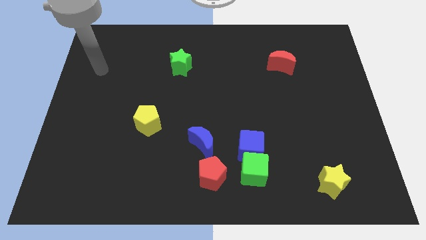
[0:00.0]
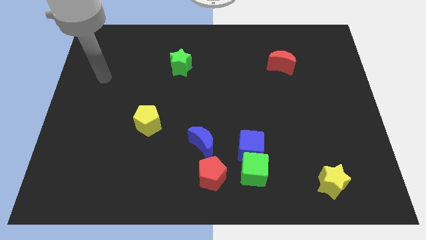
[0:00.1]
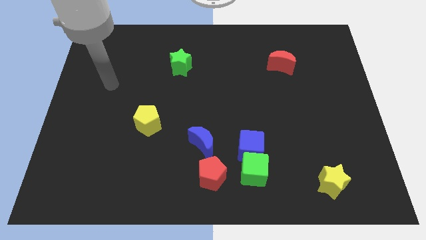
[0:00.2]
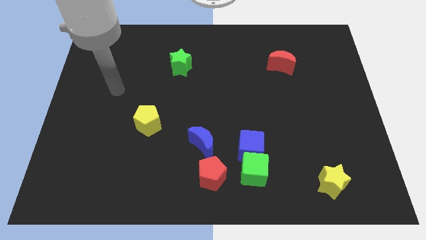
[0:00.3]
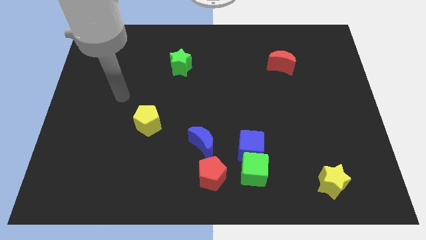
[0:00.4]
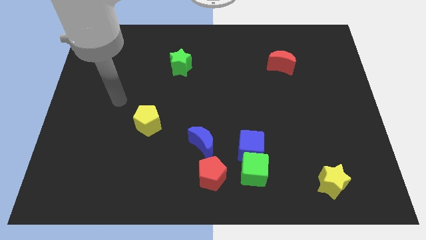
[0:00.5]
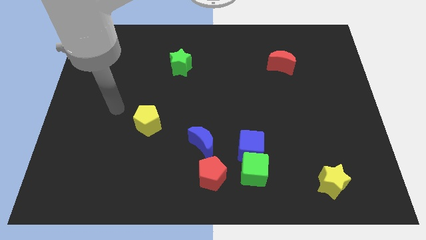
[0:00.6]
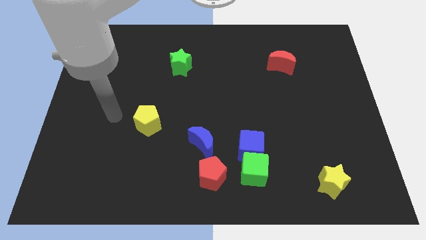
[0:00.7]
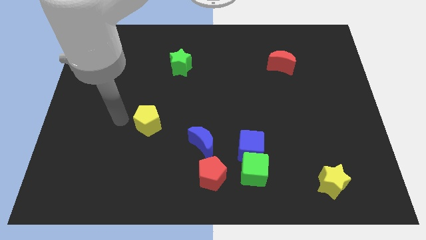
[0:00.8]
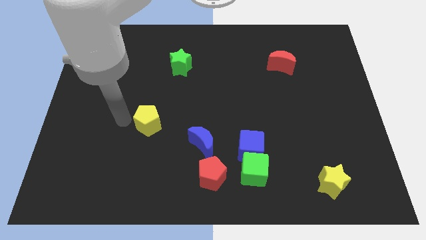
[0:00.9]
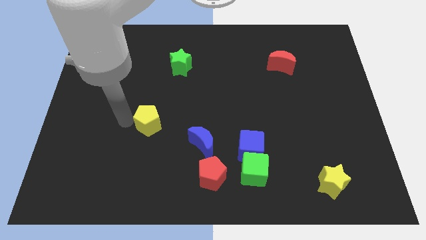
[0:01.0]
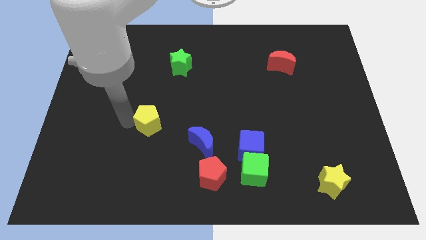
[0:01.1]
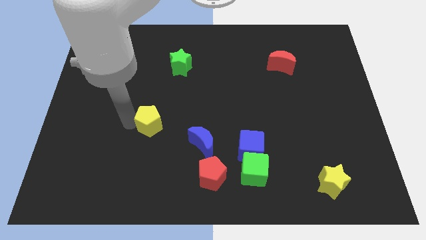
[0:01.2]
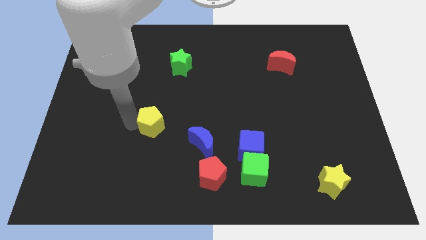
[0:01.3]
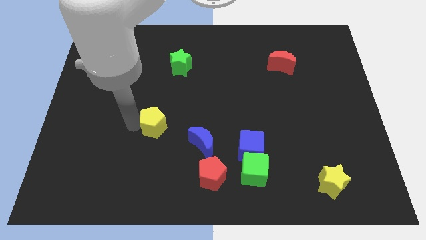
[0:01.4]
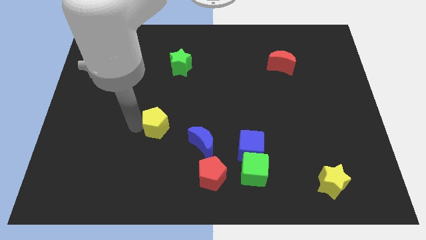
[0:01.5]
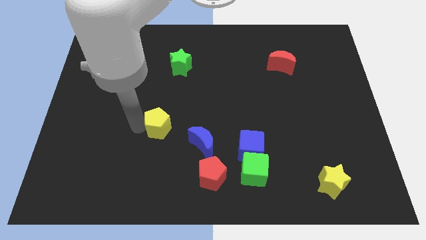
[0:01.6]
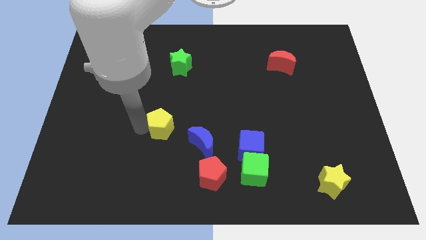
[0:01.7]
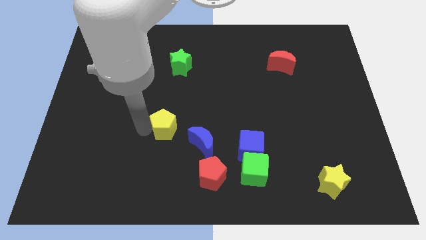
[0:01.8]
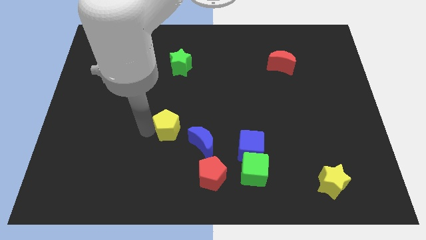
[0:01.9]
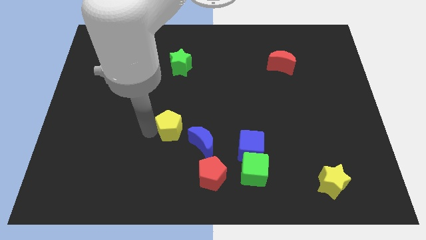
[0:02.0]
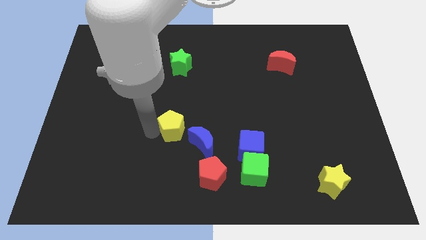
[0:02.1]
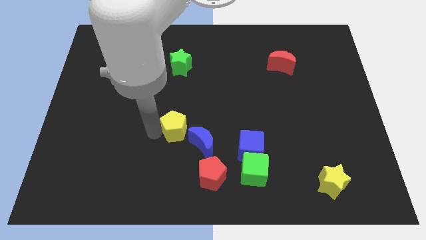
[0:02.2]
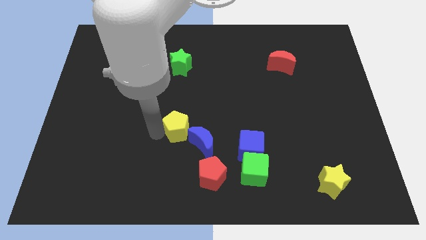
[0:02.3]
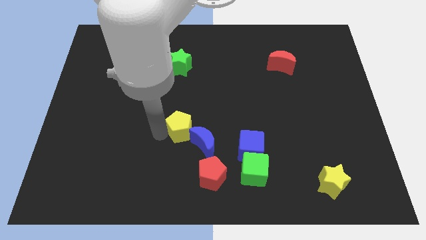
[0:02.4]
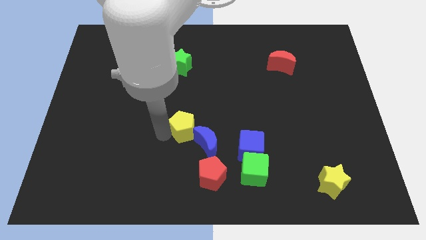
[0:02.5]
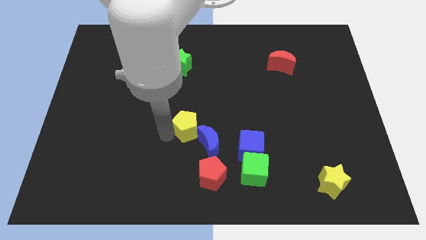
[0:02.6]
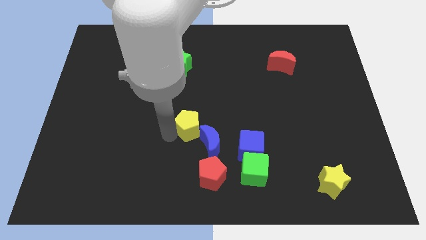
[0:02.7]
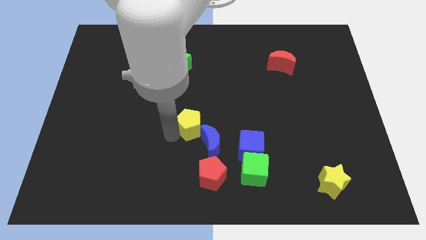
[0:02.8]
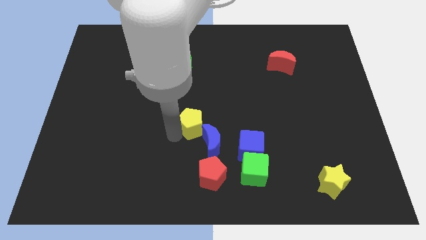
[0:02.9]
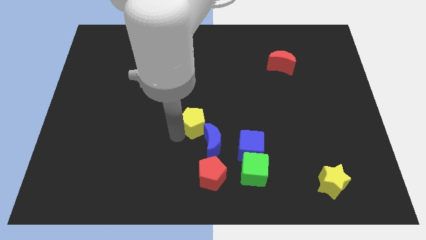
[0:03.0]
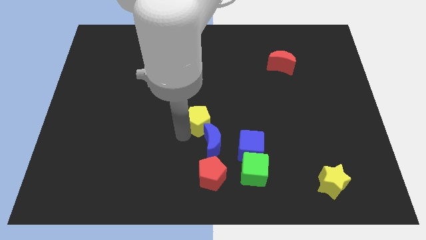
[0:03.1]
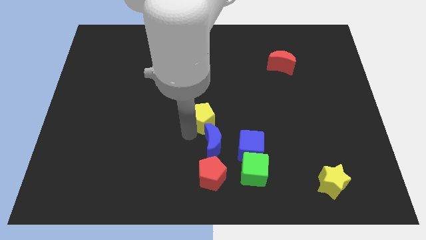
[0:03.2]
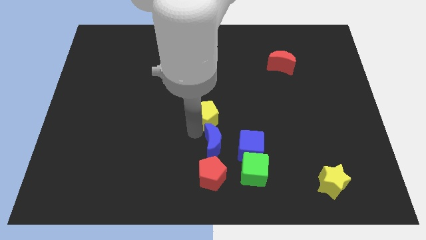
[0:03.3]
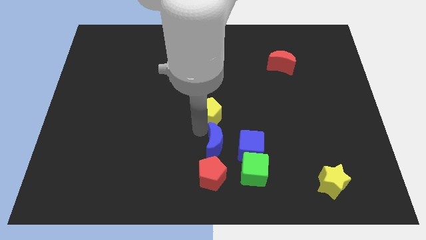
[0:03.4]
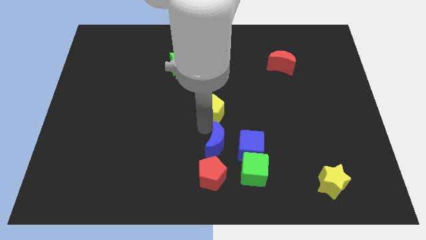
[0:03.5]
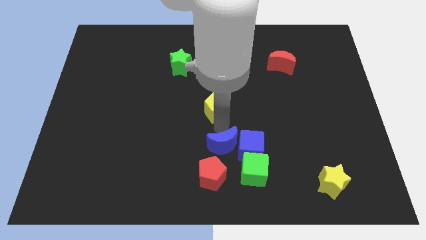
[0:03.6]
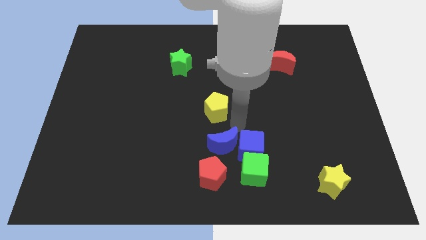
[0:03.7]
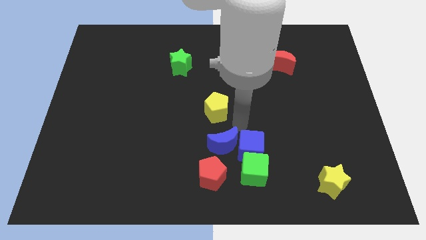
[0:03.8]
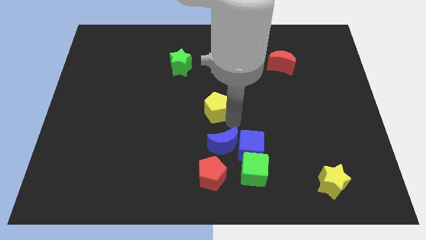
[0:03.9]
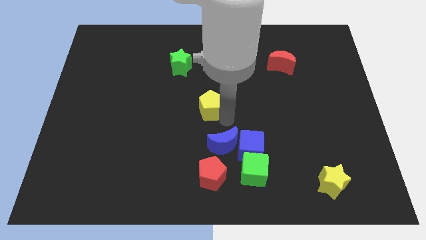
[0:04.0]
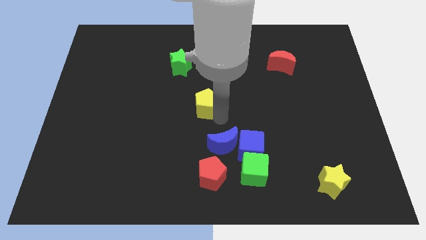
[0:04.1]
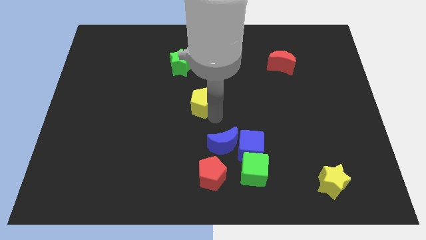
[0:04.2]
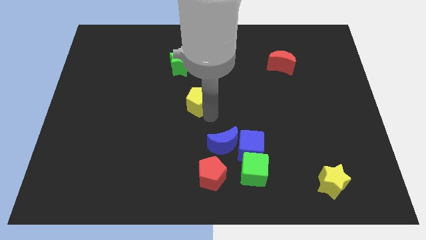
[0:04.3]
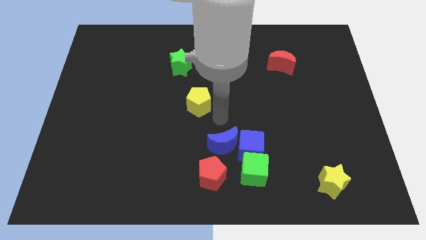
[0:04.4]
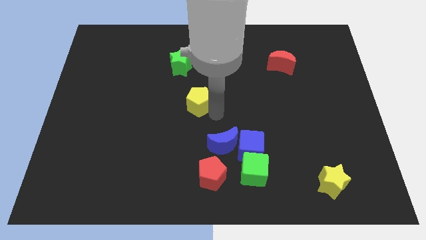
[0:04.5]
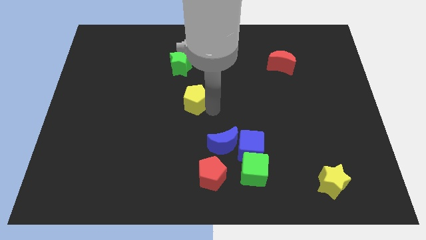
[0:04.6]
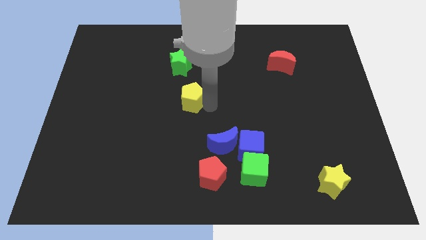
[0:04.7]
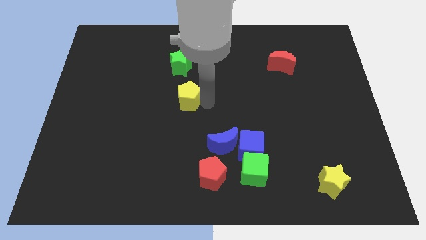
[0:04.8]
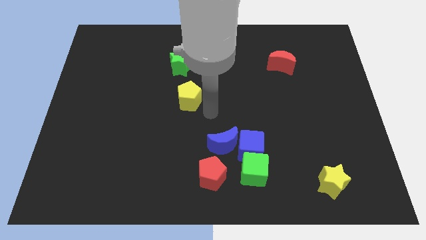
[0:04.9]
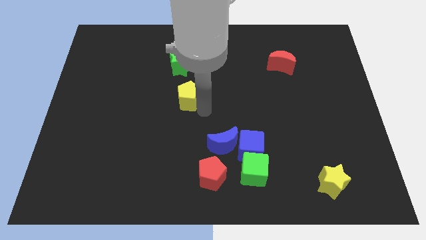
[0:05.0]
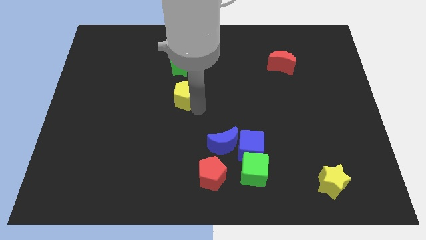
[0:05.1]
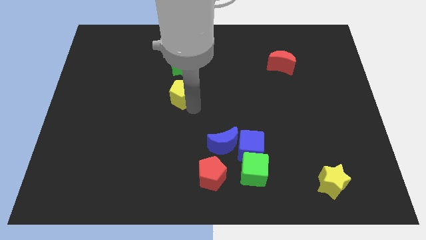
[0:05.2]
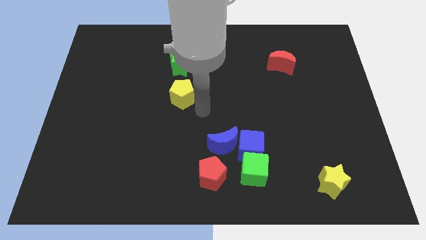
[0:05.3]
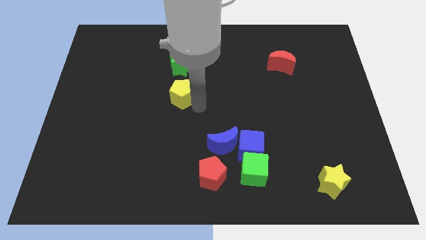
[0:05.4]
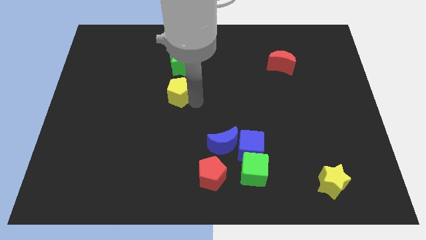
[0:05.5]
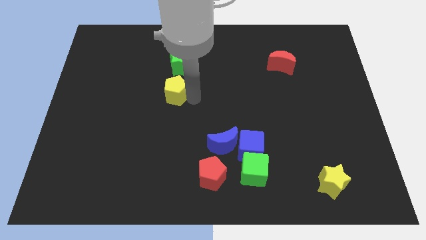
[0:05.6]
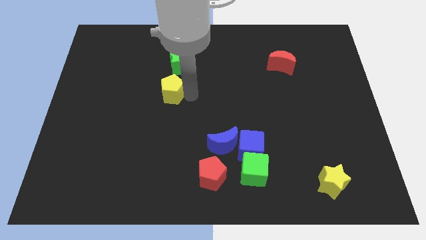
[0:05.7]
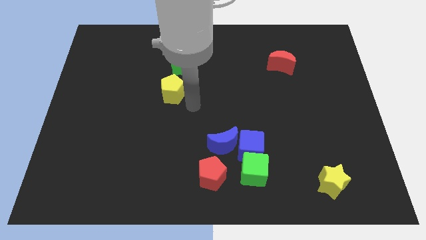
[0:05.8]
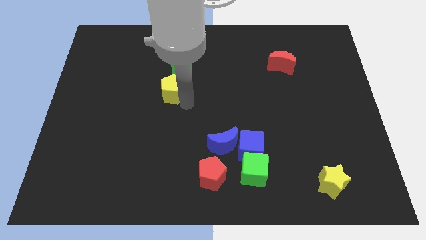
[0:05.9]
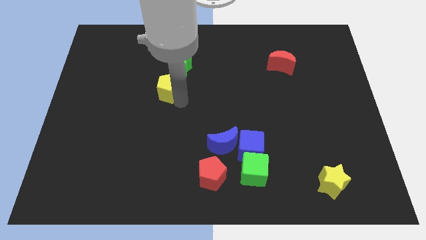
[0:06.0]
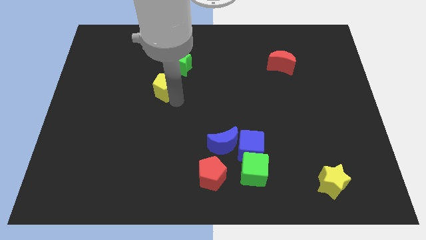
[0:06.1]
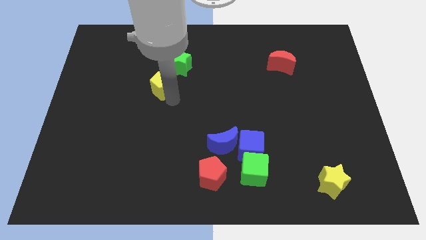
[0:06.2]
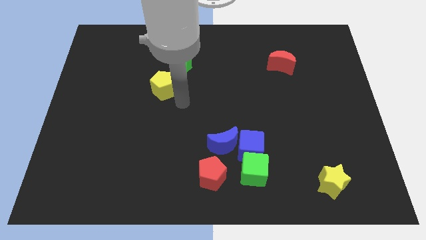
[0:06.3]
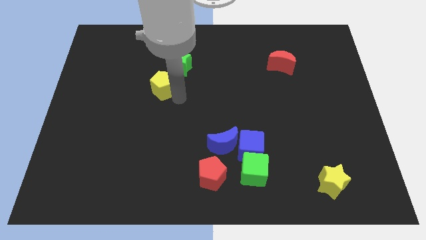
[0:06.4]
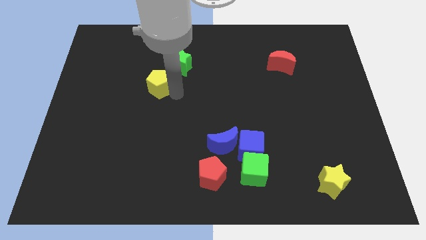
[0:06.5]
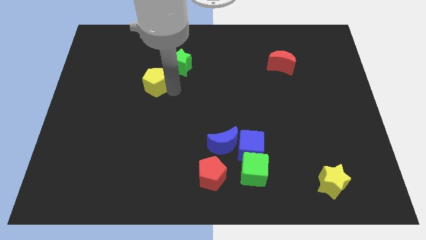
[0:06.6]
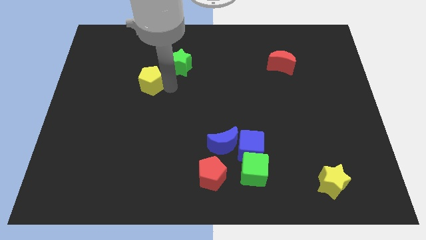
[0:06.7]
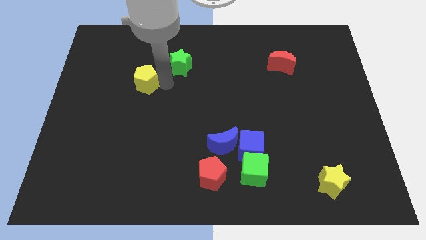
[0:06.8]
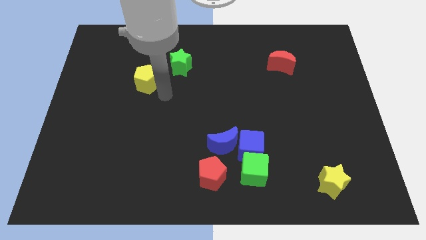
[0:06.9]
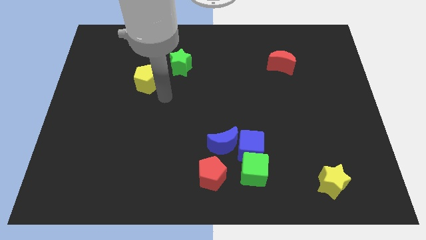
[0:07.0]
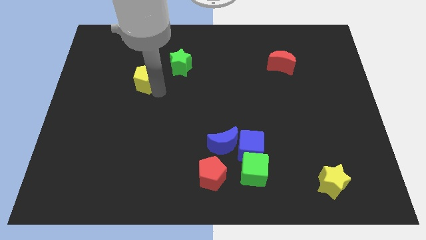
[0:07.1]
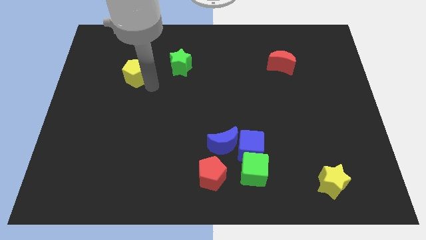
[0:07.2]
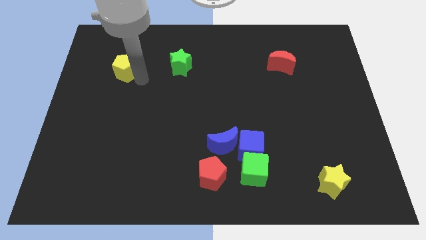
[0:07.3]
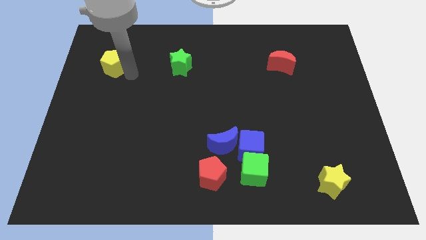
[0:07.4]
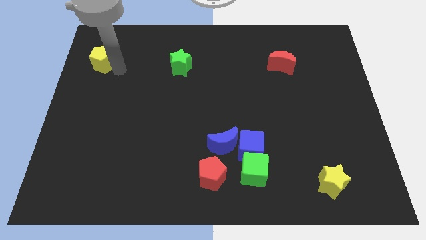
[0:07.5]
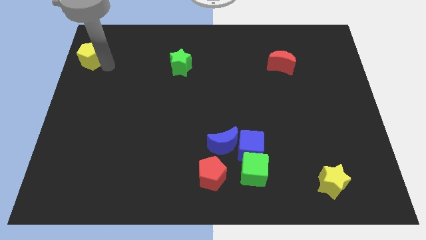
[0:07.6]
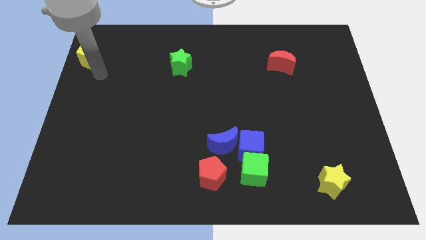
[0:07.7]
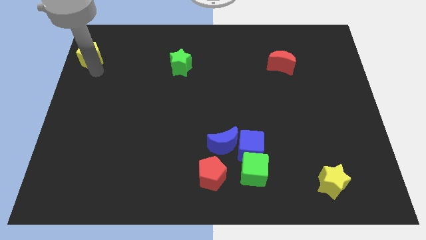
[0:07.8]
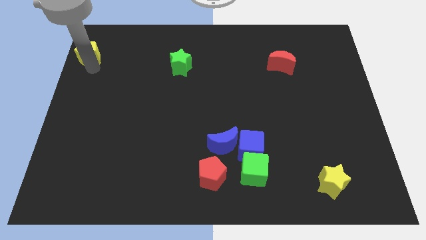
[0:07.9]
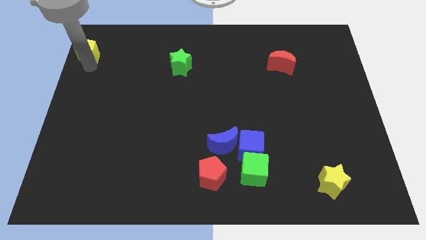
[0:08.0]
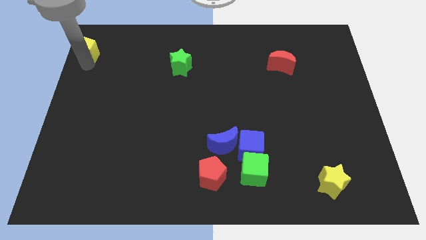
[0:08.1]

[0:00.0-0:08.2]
push the yellow pentagon to the top left
